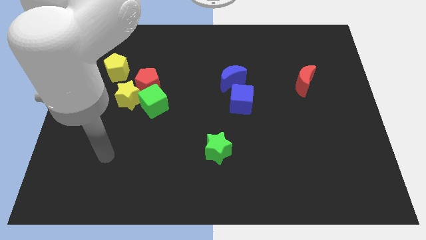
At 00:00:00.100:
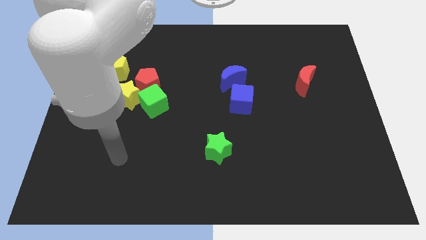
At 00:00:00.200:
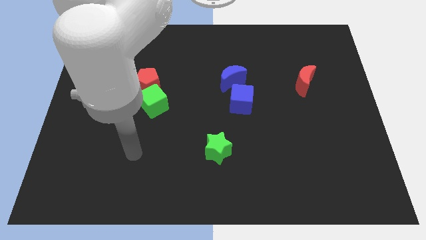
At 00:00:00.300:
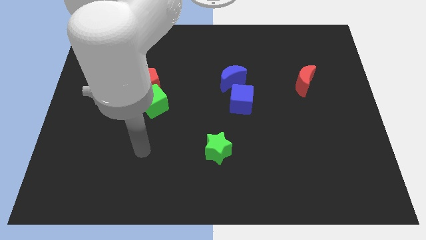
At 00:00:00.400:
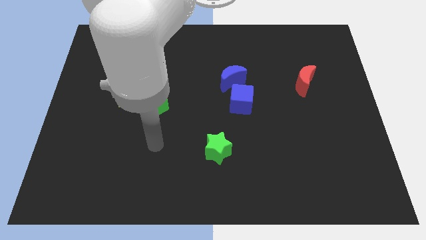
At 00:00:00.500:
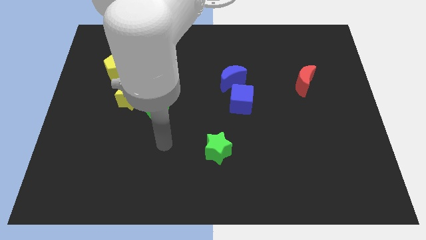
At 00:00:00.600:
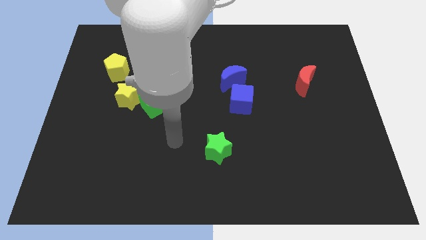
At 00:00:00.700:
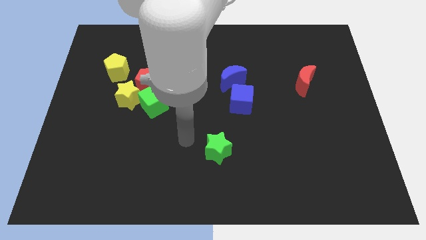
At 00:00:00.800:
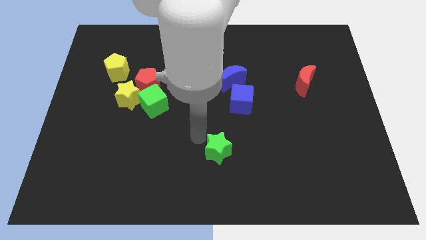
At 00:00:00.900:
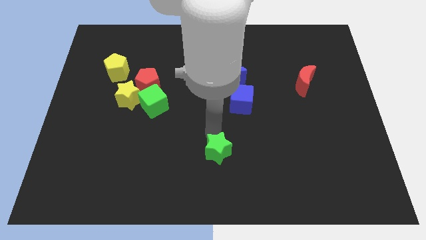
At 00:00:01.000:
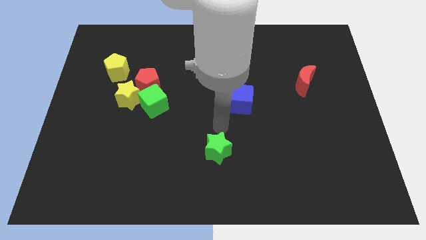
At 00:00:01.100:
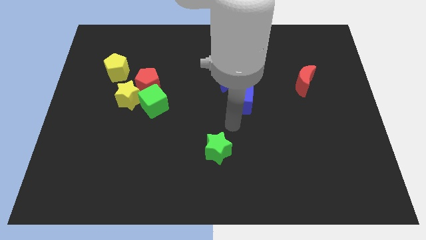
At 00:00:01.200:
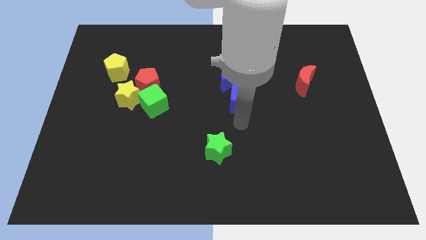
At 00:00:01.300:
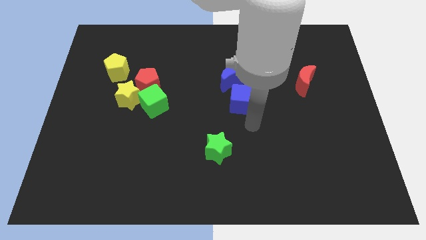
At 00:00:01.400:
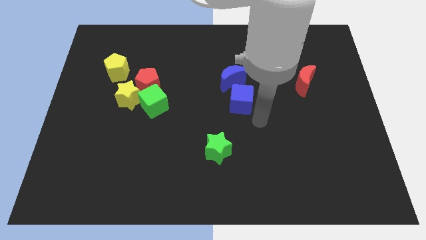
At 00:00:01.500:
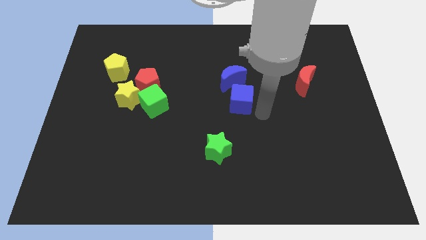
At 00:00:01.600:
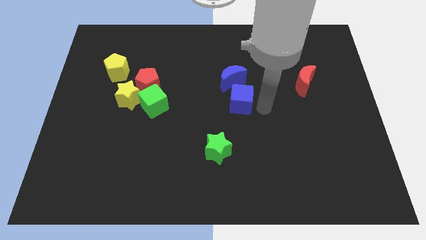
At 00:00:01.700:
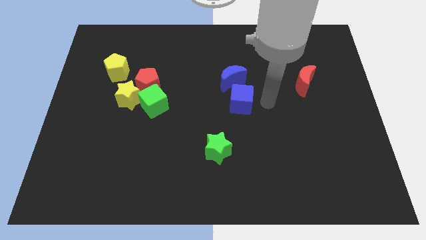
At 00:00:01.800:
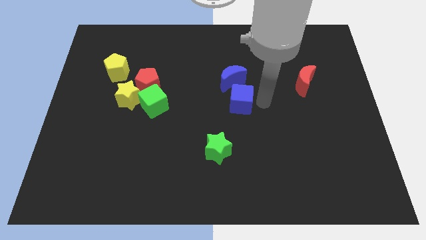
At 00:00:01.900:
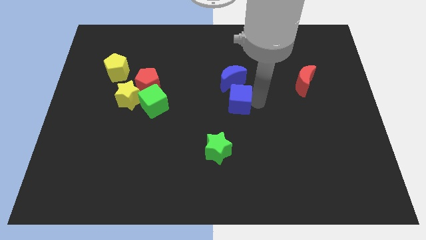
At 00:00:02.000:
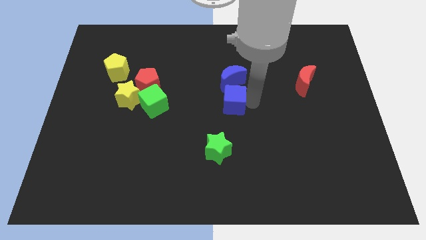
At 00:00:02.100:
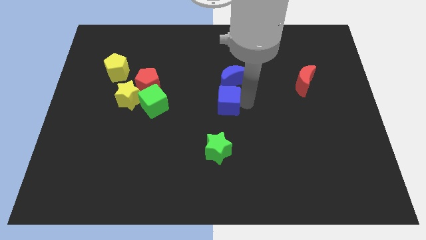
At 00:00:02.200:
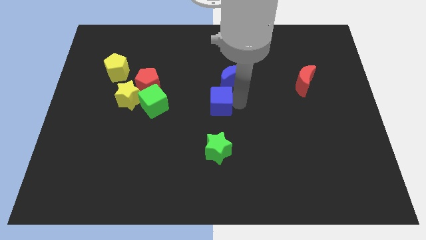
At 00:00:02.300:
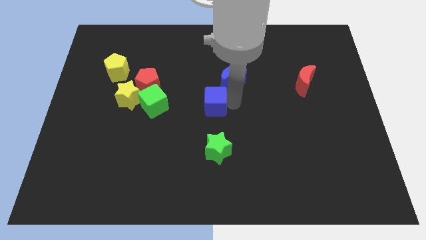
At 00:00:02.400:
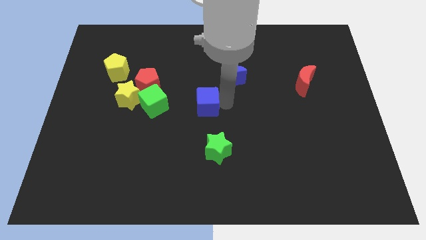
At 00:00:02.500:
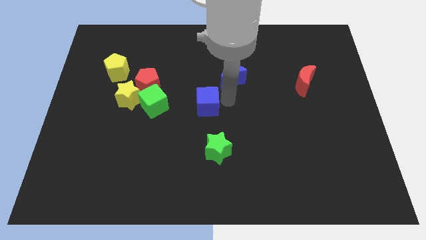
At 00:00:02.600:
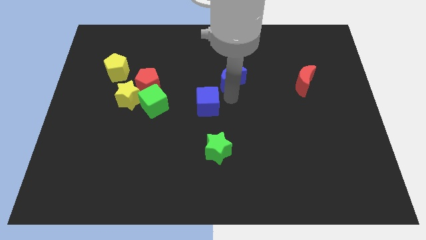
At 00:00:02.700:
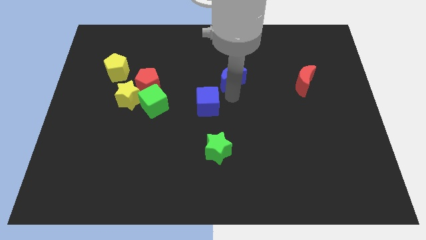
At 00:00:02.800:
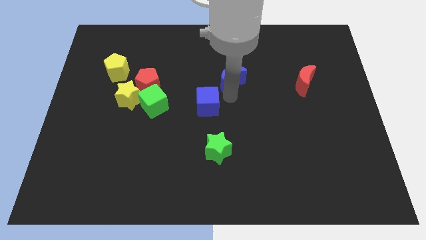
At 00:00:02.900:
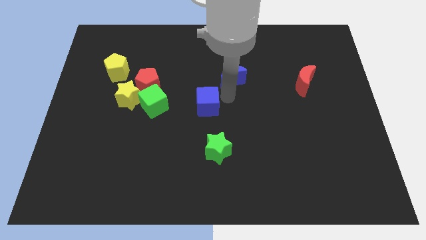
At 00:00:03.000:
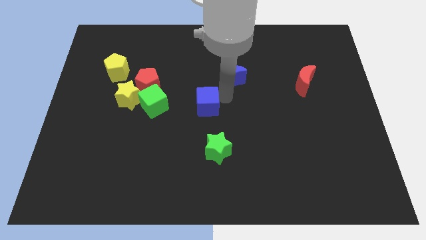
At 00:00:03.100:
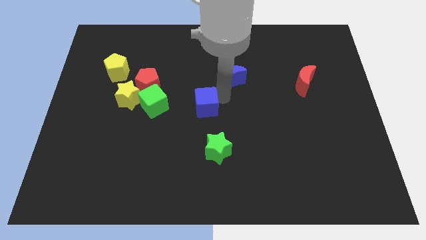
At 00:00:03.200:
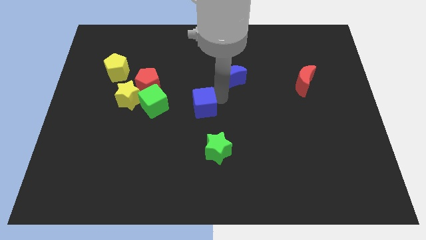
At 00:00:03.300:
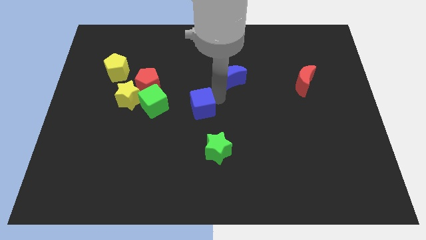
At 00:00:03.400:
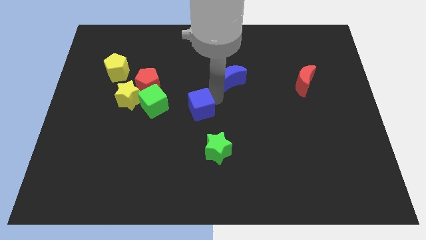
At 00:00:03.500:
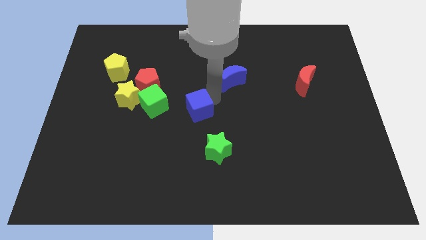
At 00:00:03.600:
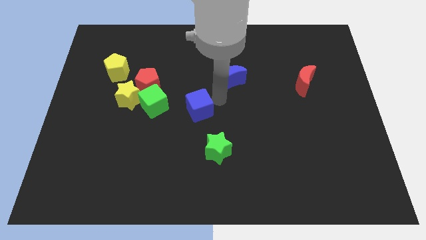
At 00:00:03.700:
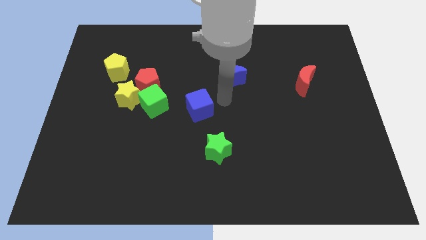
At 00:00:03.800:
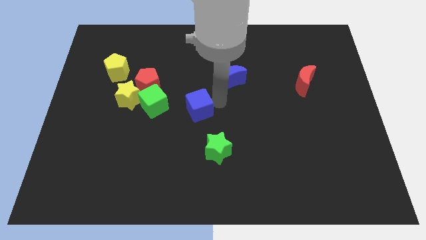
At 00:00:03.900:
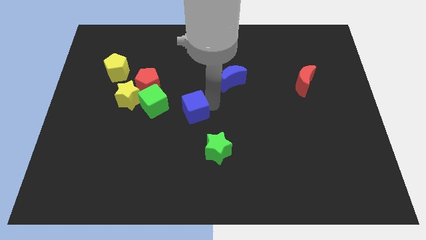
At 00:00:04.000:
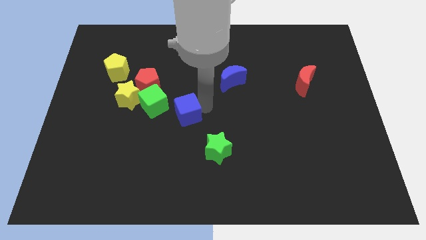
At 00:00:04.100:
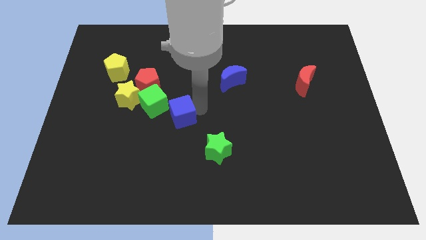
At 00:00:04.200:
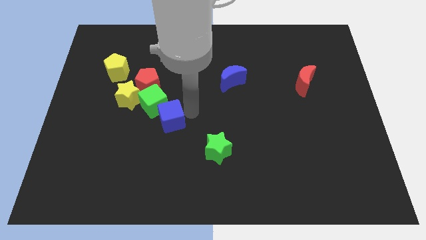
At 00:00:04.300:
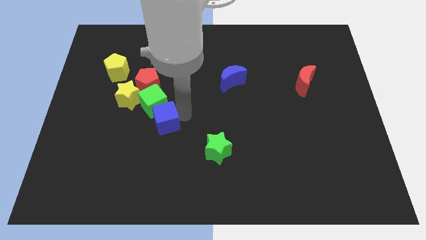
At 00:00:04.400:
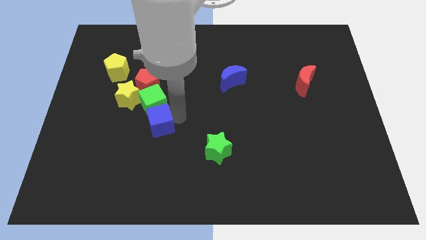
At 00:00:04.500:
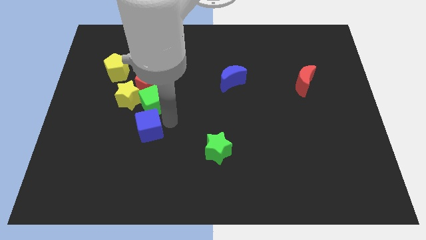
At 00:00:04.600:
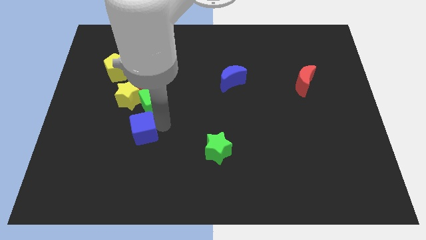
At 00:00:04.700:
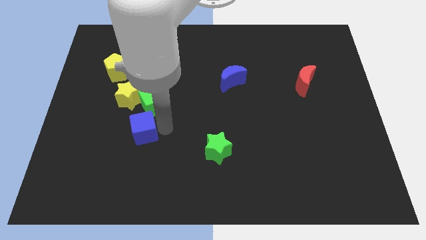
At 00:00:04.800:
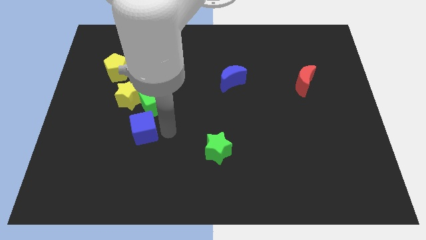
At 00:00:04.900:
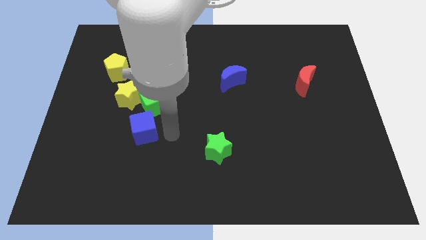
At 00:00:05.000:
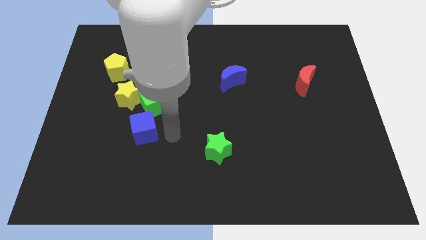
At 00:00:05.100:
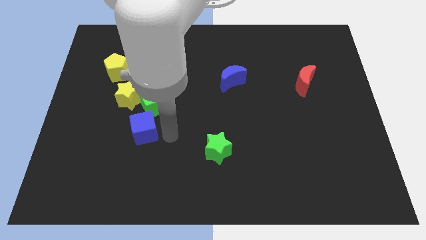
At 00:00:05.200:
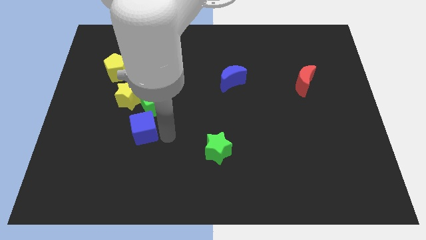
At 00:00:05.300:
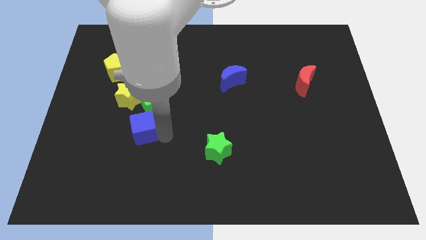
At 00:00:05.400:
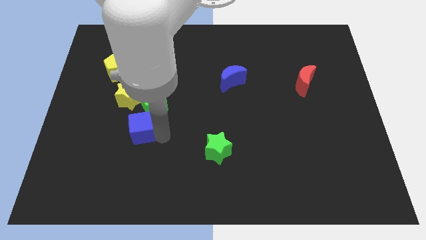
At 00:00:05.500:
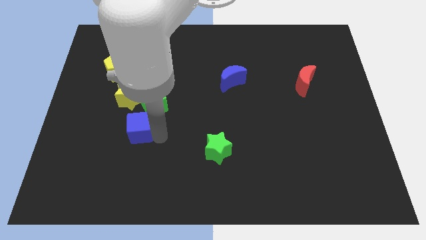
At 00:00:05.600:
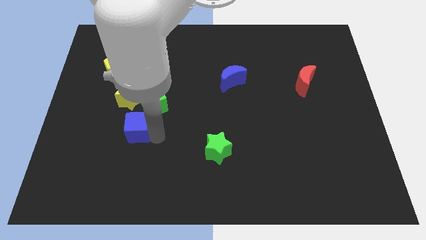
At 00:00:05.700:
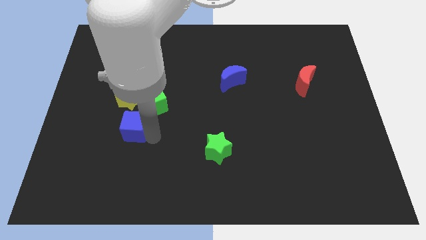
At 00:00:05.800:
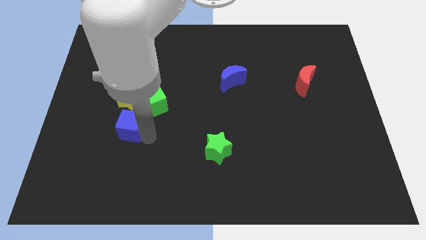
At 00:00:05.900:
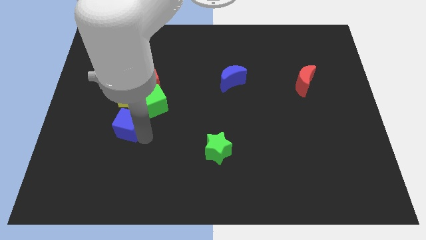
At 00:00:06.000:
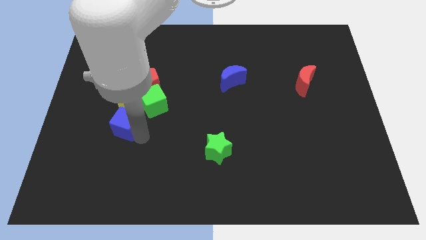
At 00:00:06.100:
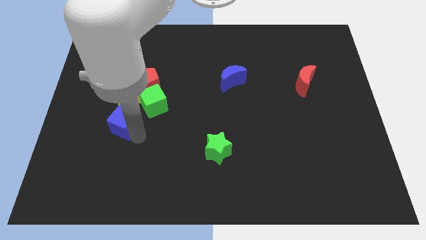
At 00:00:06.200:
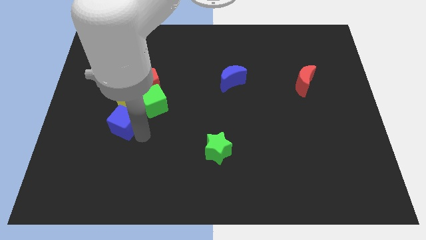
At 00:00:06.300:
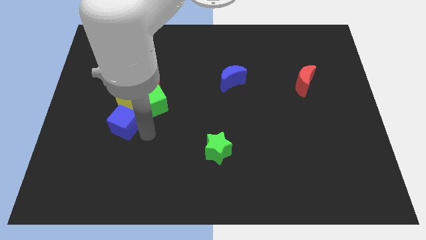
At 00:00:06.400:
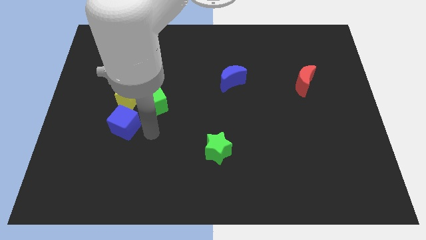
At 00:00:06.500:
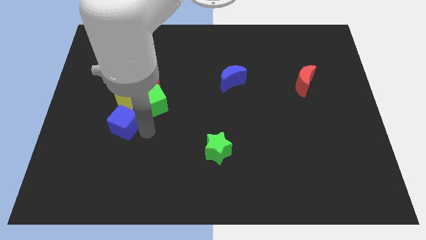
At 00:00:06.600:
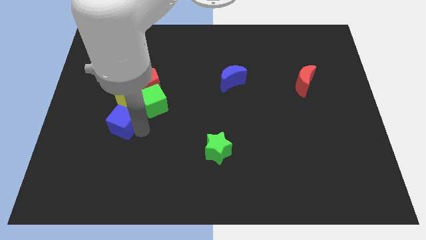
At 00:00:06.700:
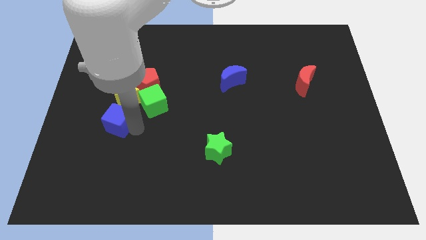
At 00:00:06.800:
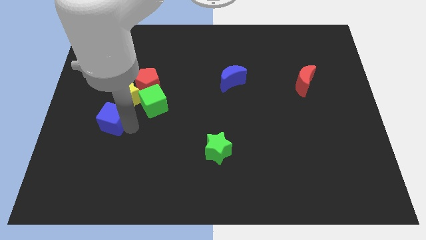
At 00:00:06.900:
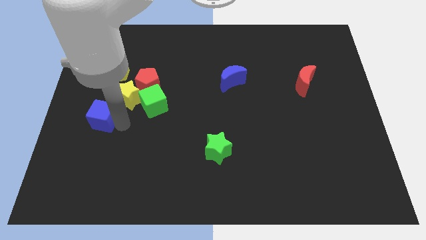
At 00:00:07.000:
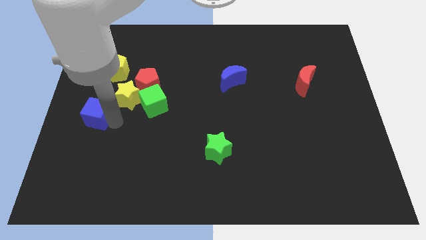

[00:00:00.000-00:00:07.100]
move the blue cube to the left side of the board
